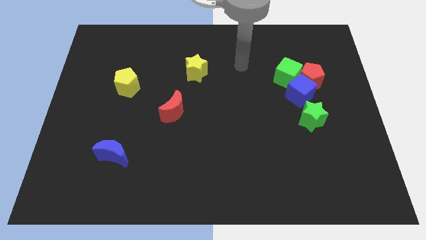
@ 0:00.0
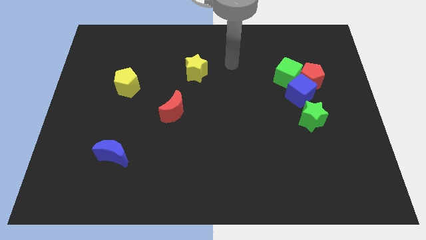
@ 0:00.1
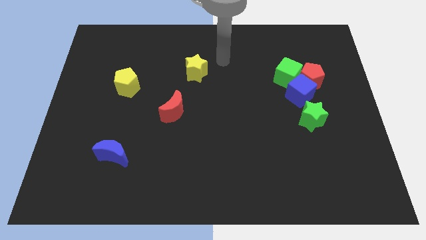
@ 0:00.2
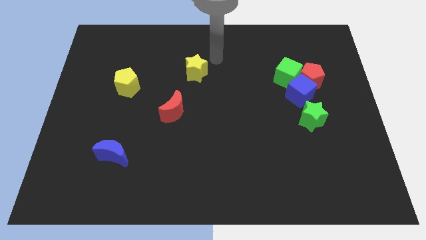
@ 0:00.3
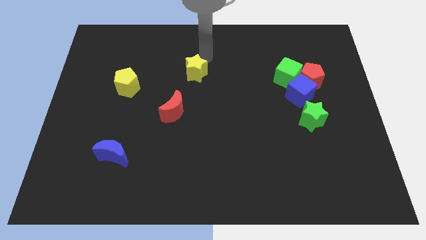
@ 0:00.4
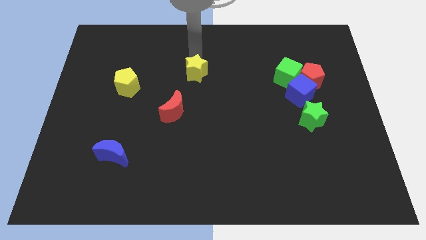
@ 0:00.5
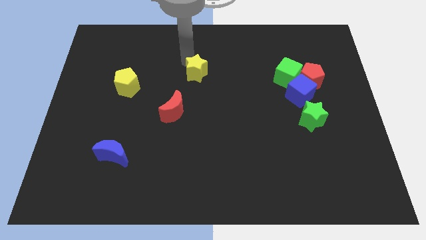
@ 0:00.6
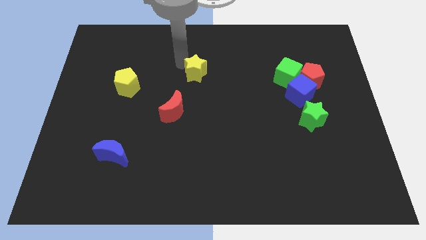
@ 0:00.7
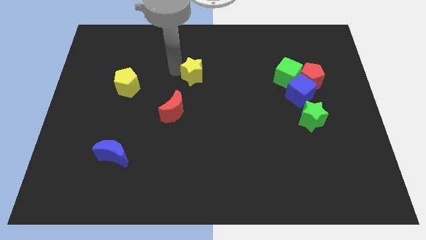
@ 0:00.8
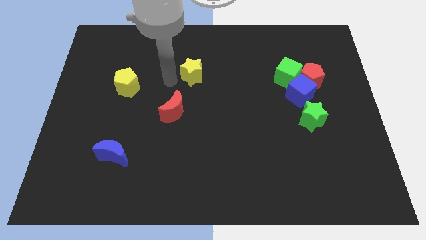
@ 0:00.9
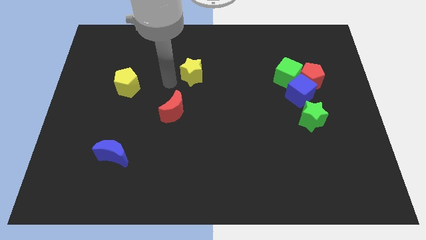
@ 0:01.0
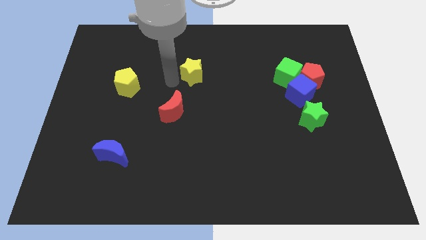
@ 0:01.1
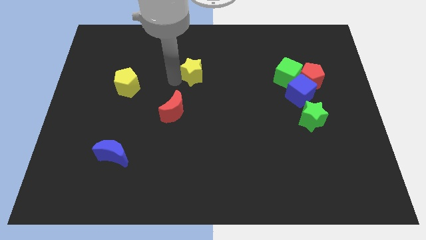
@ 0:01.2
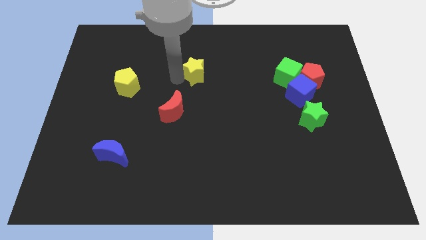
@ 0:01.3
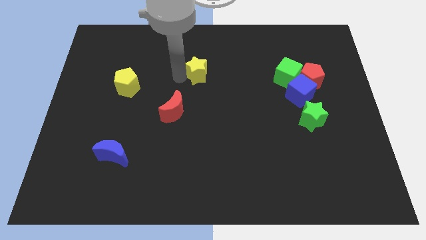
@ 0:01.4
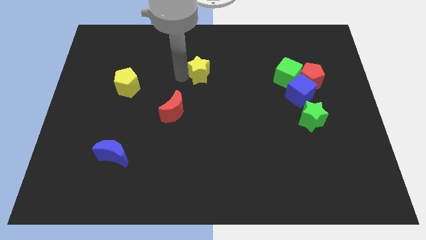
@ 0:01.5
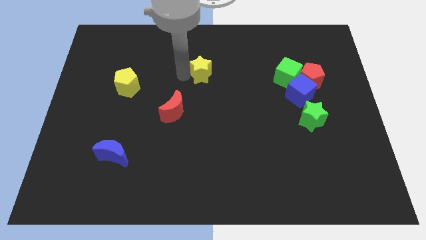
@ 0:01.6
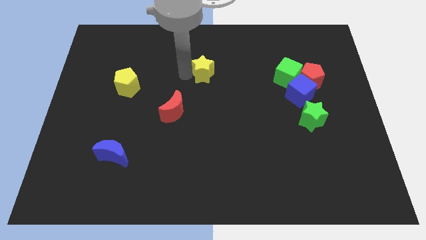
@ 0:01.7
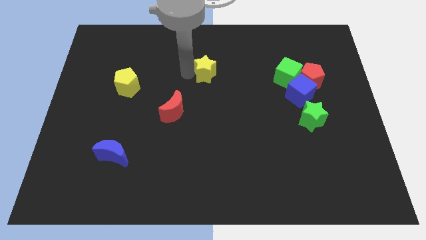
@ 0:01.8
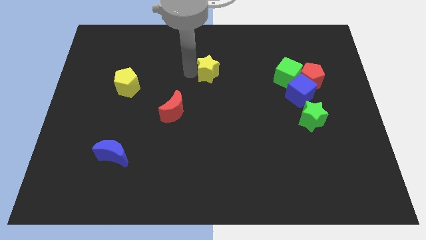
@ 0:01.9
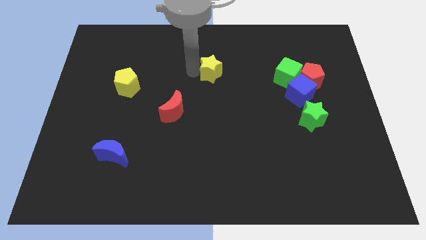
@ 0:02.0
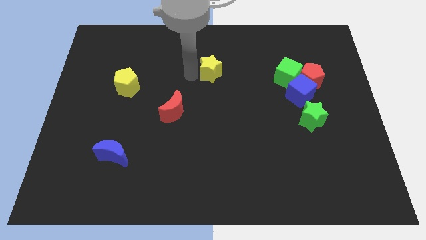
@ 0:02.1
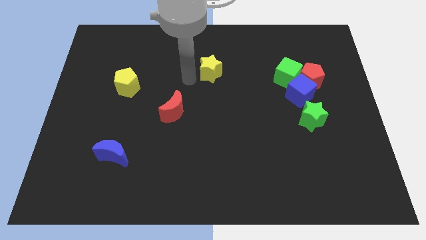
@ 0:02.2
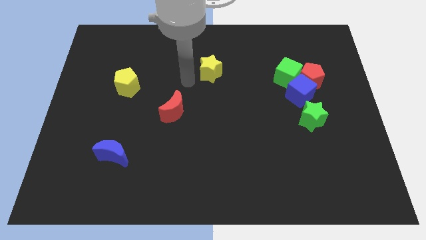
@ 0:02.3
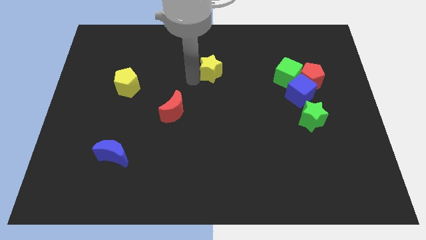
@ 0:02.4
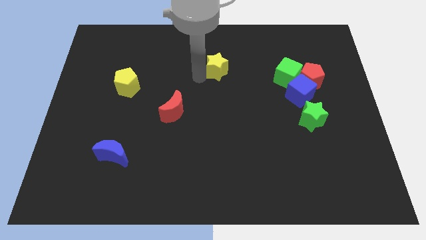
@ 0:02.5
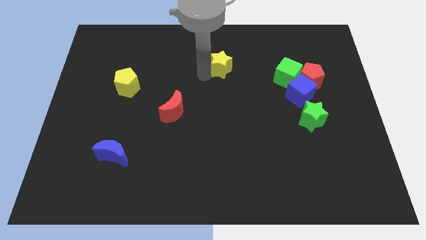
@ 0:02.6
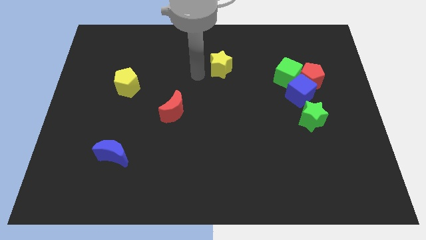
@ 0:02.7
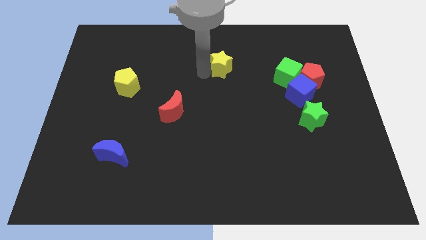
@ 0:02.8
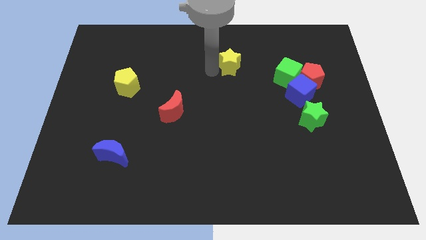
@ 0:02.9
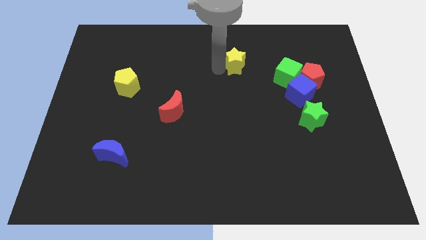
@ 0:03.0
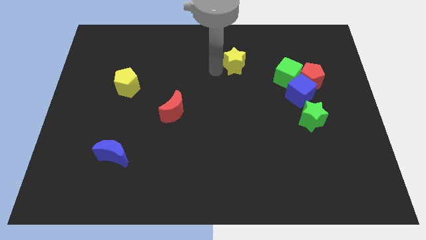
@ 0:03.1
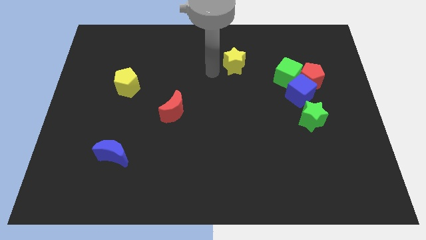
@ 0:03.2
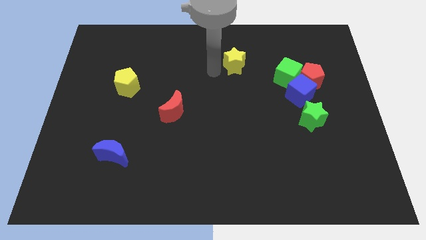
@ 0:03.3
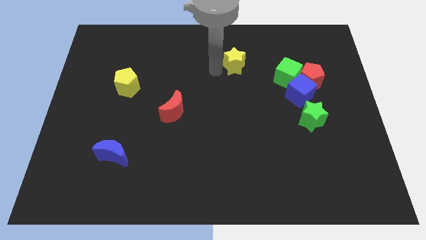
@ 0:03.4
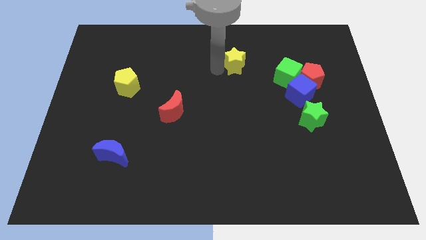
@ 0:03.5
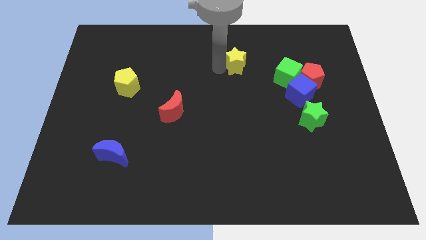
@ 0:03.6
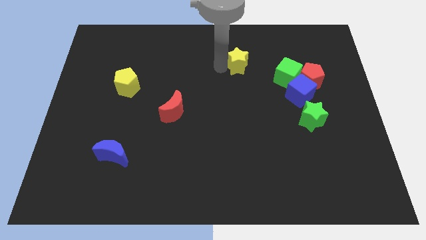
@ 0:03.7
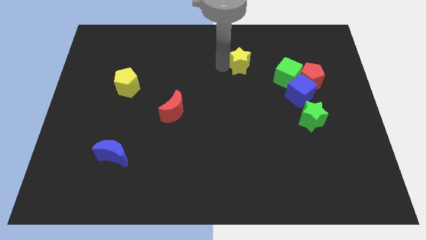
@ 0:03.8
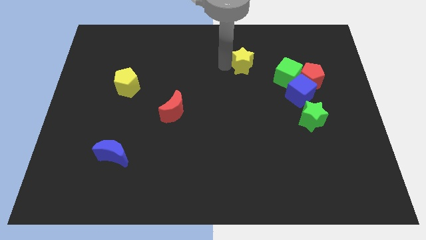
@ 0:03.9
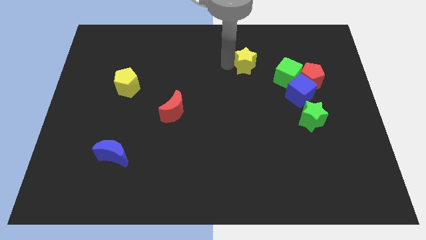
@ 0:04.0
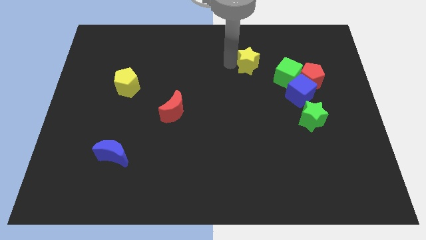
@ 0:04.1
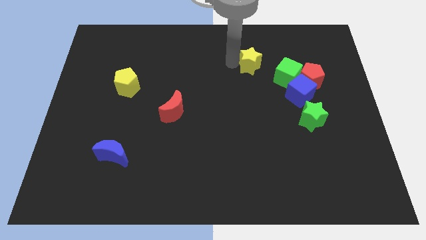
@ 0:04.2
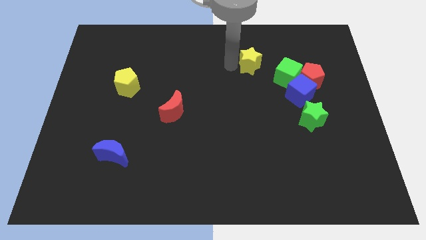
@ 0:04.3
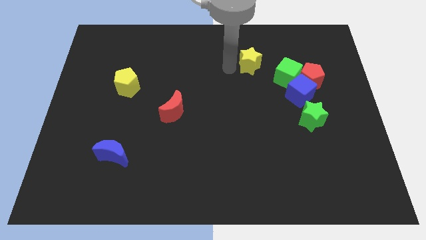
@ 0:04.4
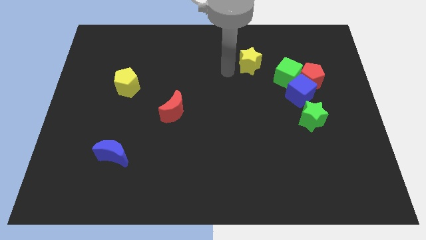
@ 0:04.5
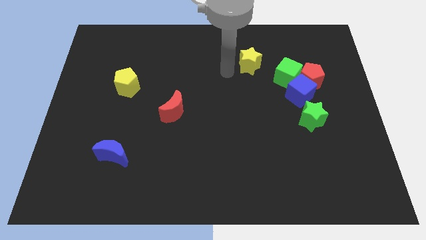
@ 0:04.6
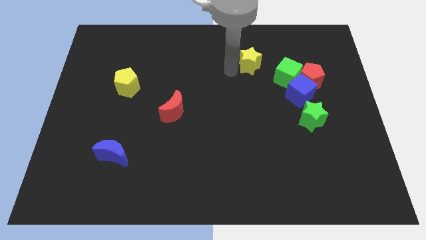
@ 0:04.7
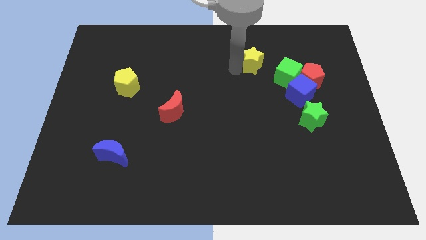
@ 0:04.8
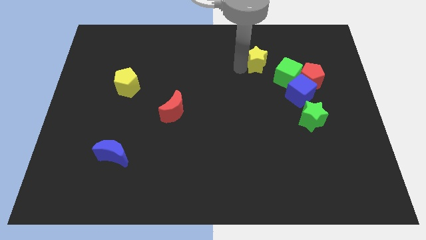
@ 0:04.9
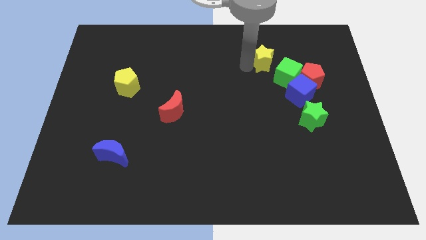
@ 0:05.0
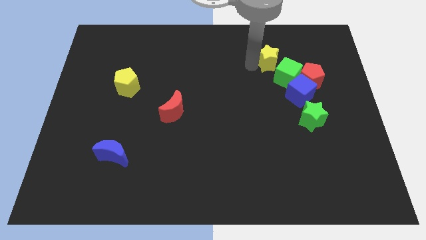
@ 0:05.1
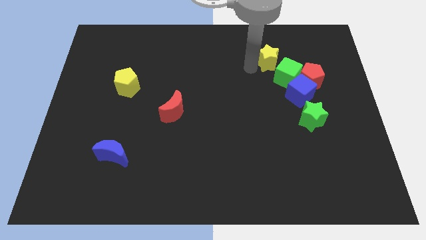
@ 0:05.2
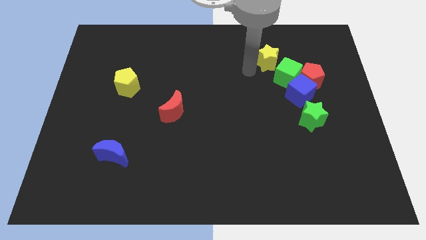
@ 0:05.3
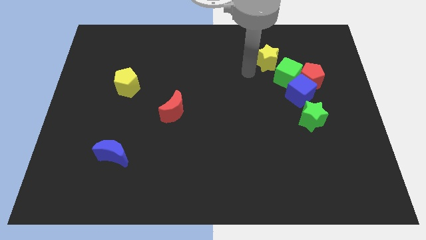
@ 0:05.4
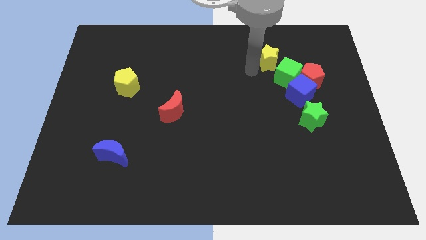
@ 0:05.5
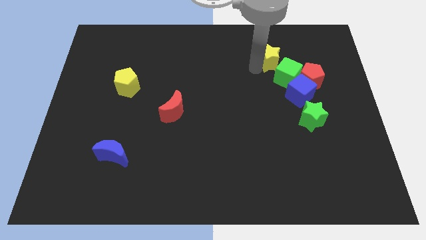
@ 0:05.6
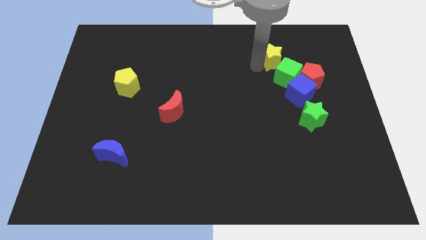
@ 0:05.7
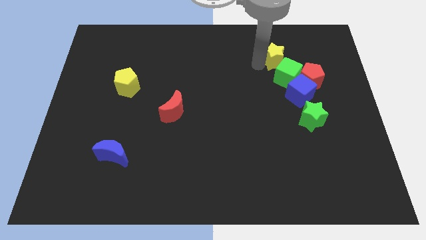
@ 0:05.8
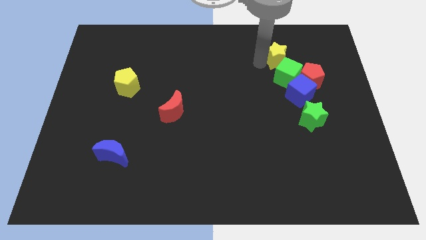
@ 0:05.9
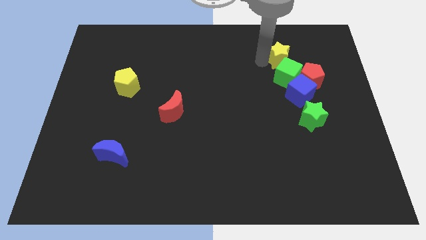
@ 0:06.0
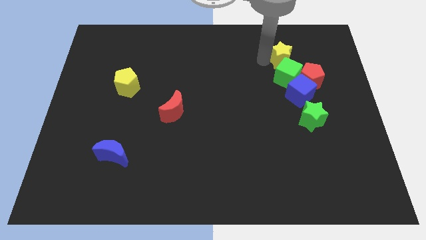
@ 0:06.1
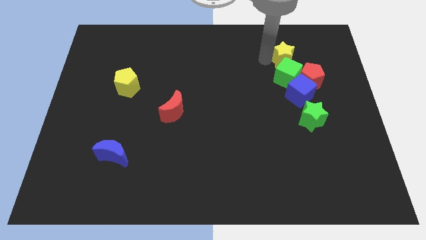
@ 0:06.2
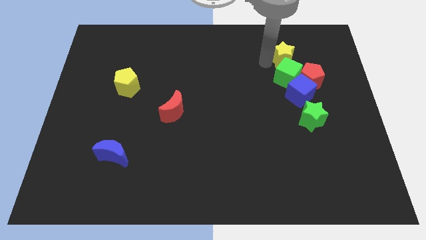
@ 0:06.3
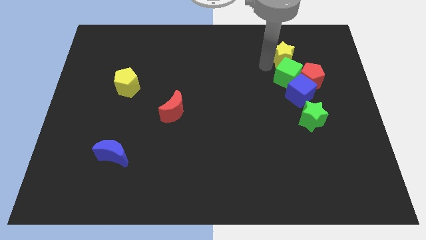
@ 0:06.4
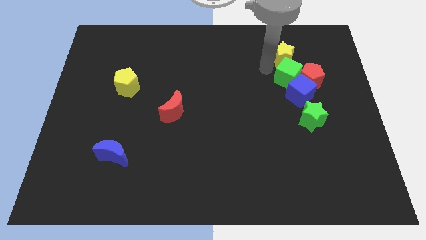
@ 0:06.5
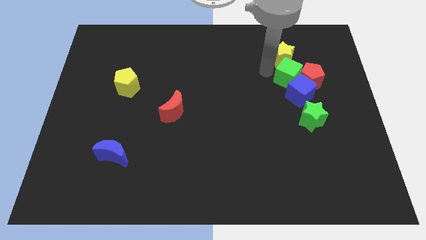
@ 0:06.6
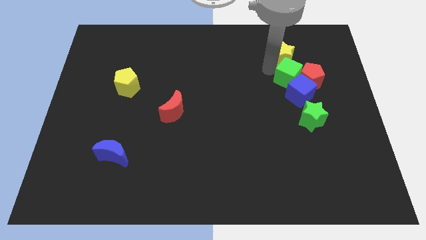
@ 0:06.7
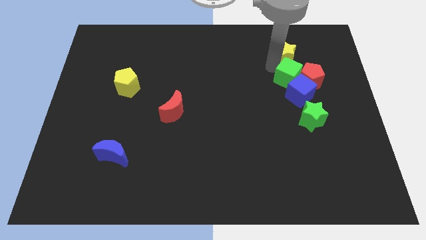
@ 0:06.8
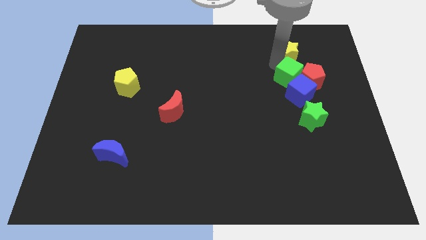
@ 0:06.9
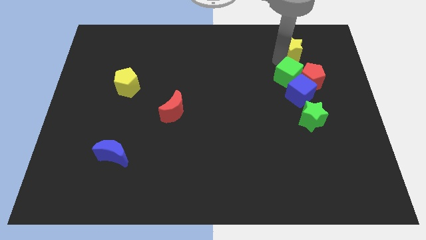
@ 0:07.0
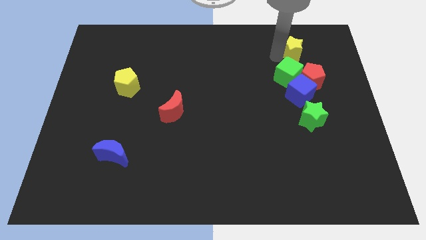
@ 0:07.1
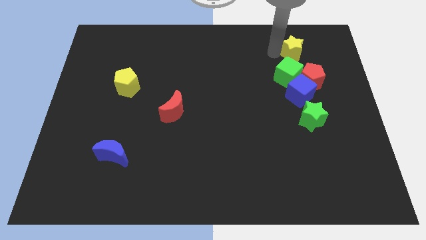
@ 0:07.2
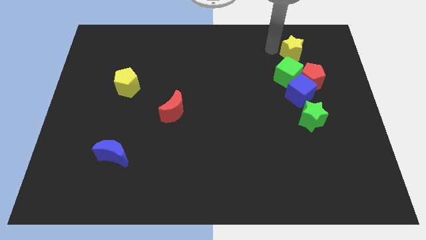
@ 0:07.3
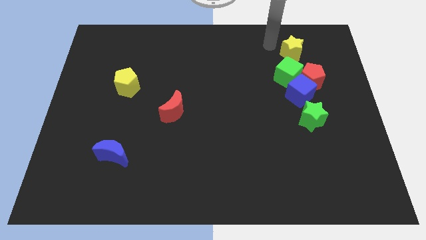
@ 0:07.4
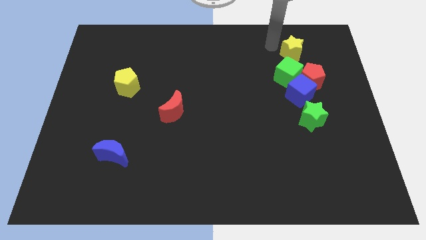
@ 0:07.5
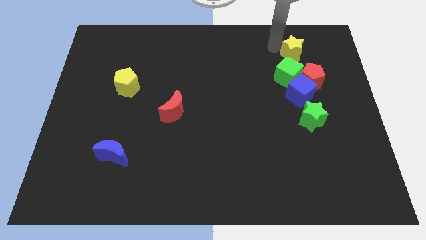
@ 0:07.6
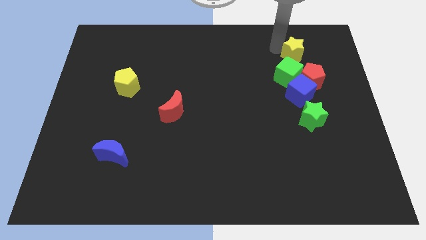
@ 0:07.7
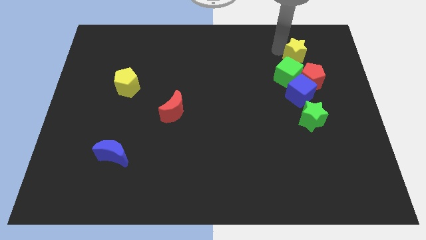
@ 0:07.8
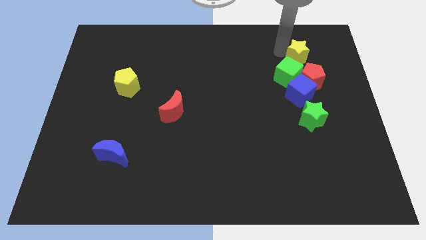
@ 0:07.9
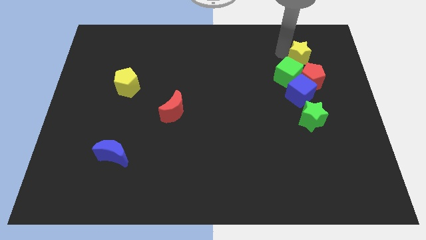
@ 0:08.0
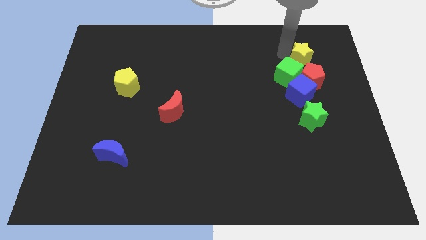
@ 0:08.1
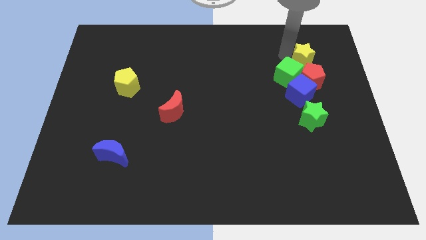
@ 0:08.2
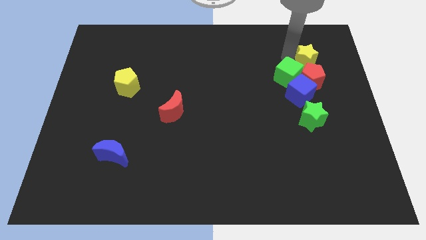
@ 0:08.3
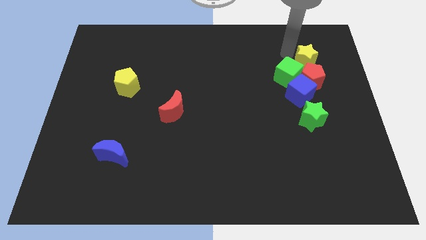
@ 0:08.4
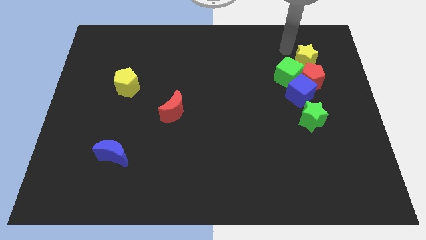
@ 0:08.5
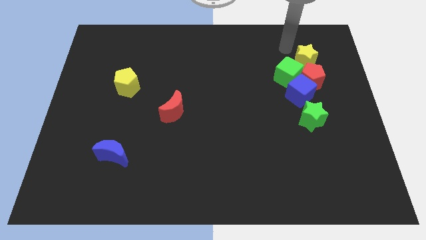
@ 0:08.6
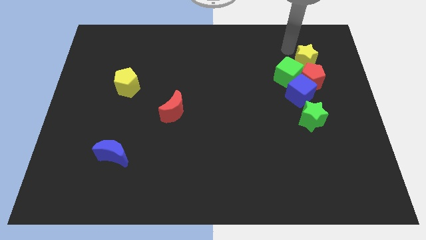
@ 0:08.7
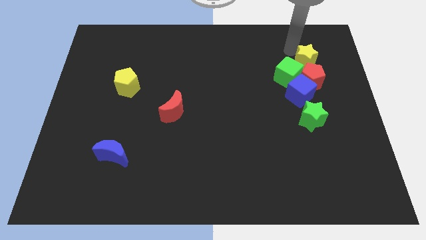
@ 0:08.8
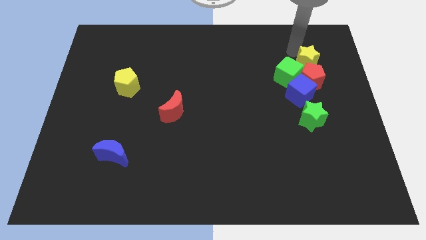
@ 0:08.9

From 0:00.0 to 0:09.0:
put the yellow star to the right side of the green cube
